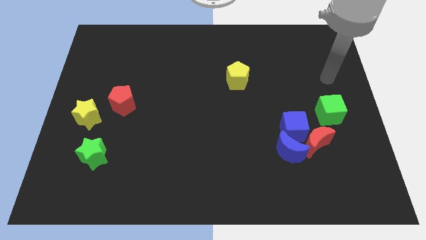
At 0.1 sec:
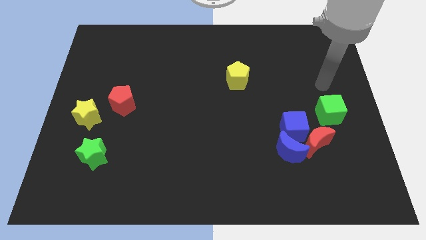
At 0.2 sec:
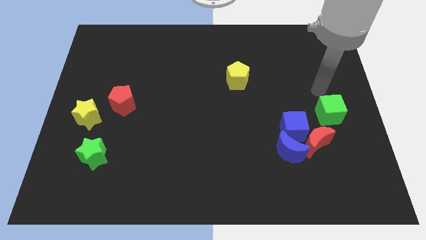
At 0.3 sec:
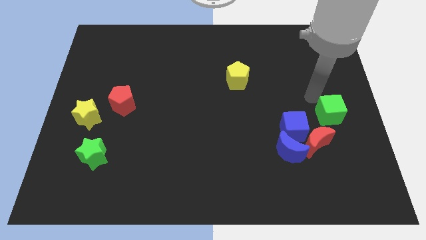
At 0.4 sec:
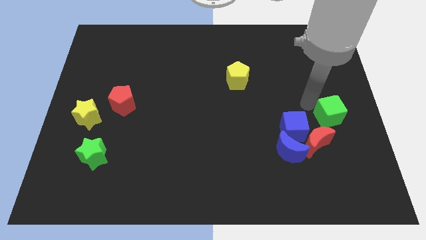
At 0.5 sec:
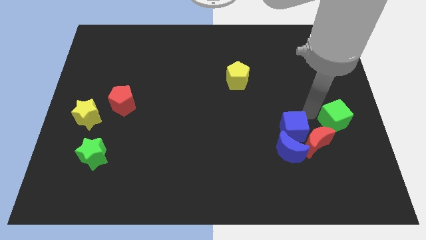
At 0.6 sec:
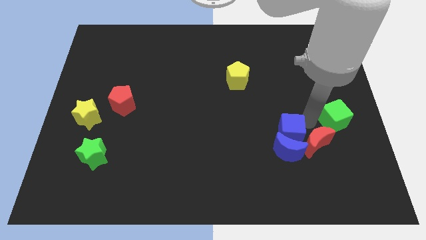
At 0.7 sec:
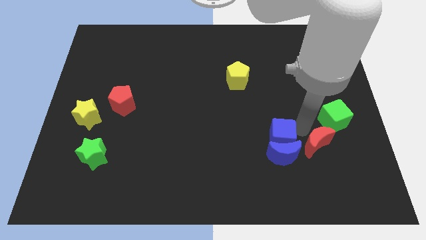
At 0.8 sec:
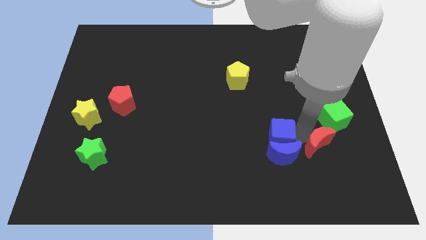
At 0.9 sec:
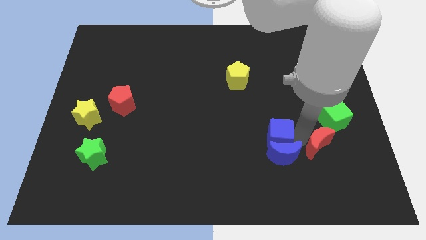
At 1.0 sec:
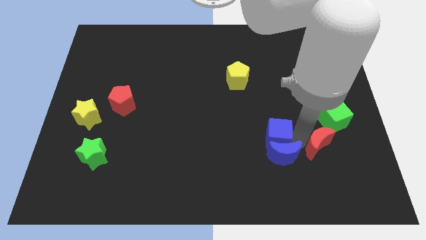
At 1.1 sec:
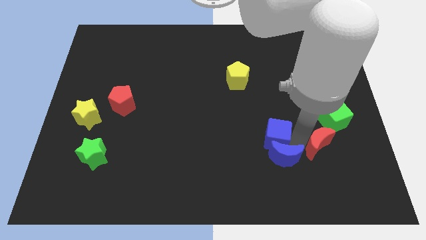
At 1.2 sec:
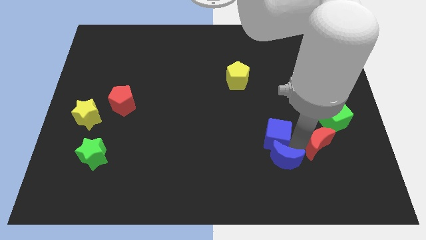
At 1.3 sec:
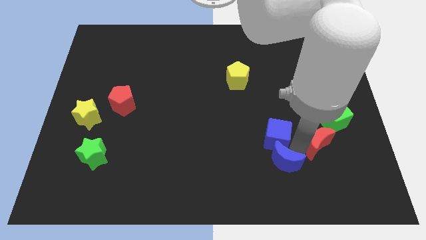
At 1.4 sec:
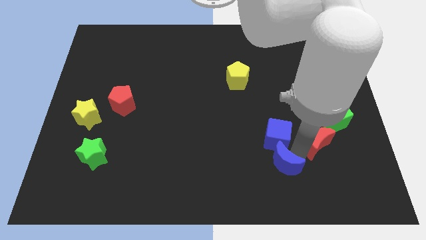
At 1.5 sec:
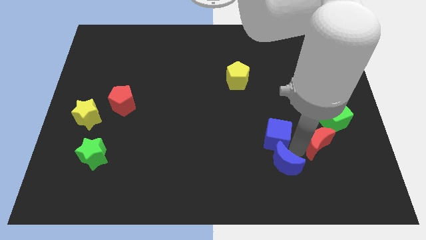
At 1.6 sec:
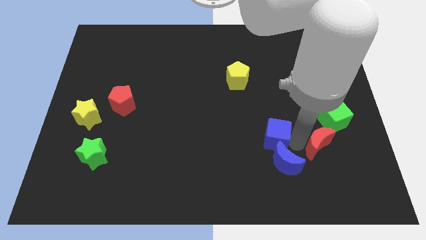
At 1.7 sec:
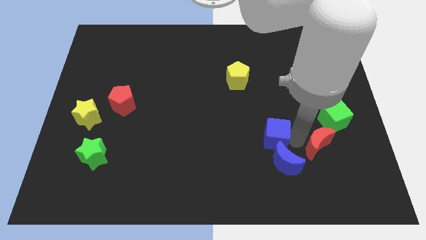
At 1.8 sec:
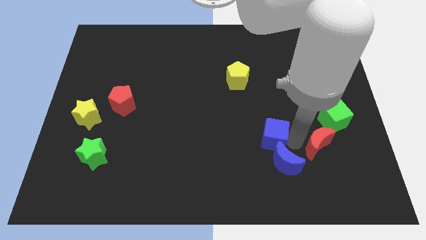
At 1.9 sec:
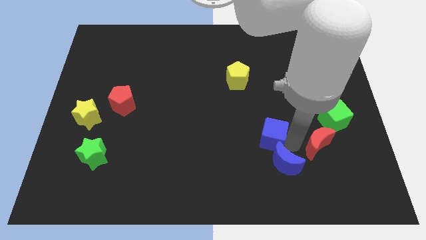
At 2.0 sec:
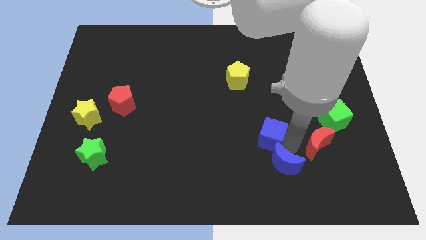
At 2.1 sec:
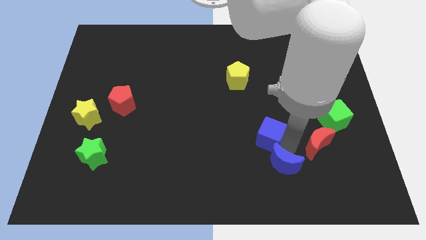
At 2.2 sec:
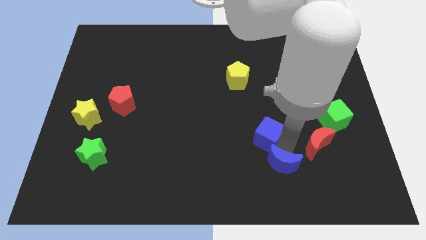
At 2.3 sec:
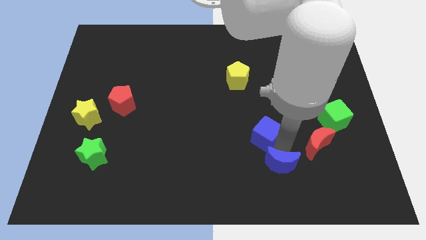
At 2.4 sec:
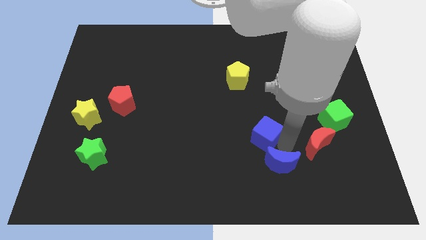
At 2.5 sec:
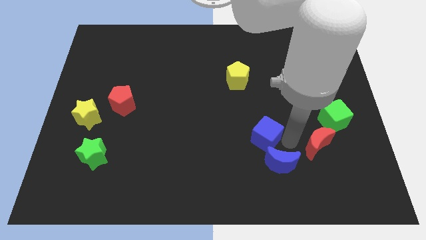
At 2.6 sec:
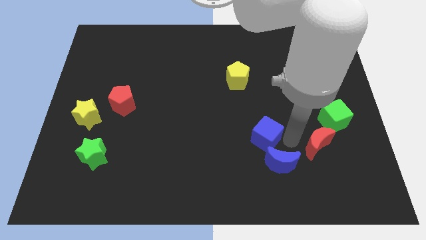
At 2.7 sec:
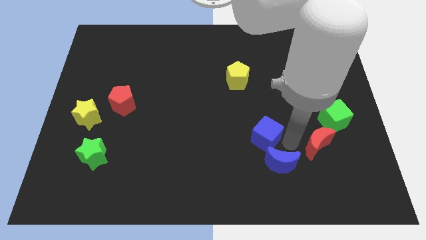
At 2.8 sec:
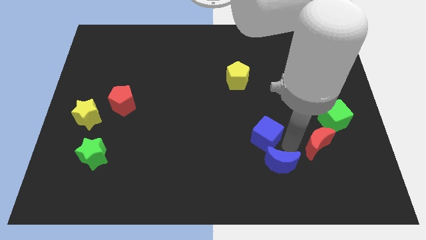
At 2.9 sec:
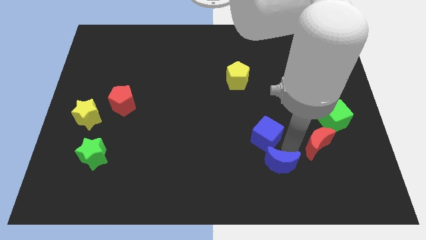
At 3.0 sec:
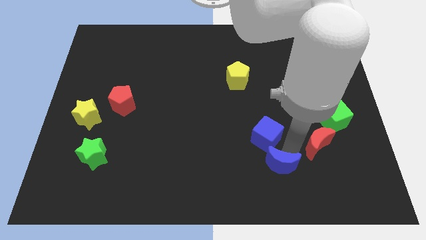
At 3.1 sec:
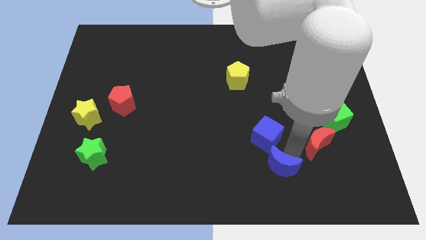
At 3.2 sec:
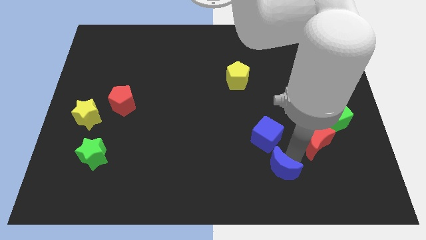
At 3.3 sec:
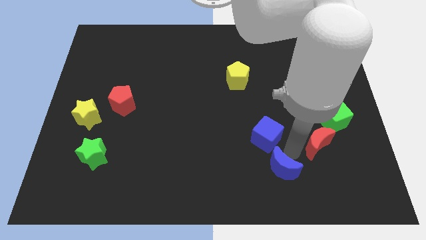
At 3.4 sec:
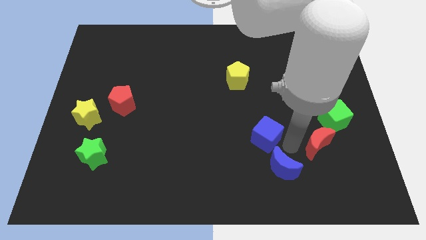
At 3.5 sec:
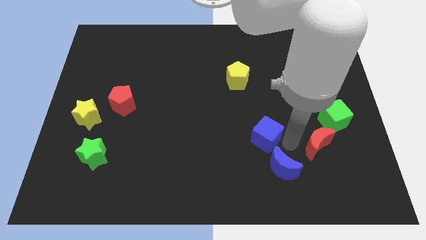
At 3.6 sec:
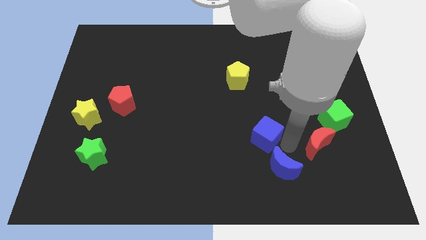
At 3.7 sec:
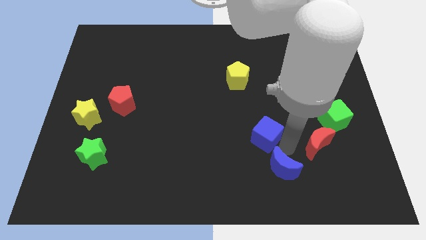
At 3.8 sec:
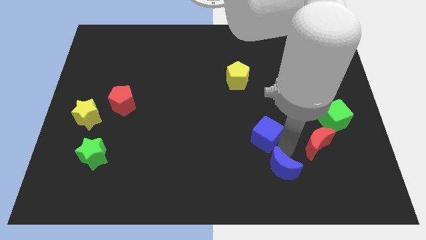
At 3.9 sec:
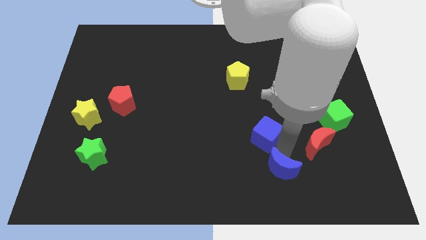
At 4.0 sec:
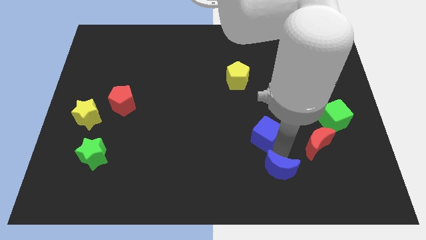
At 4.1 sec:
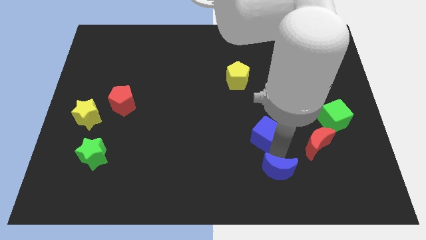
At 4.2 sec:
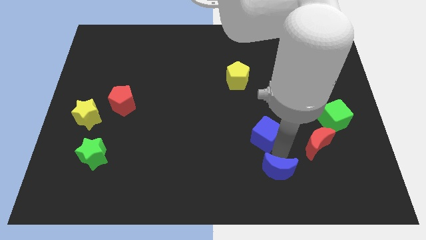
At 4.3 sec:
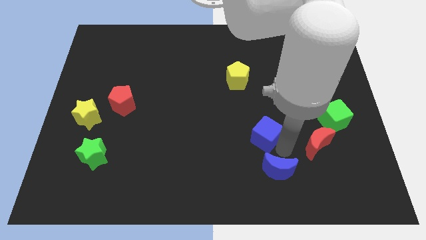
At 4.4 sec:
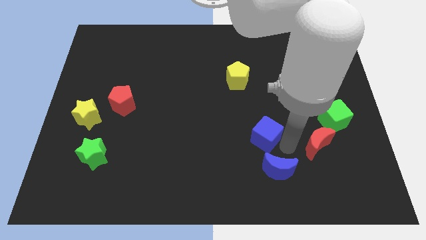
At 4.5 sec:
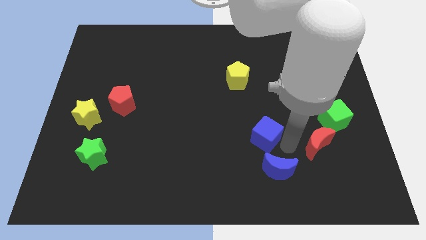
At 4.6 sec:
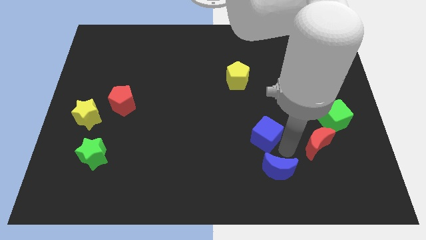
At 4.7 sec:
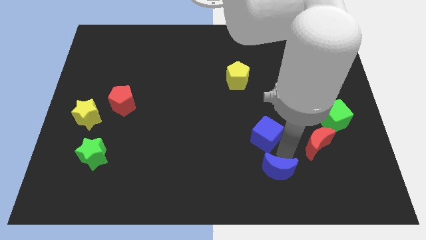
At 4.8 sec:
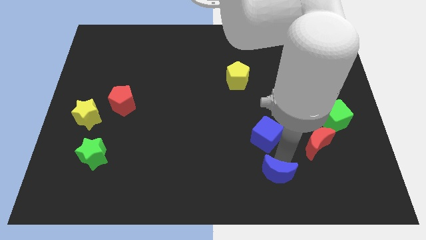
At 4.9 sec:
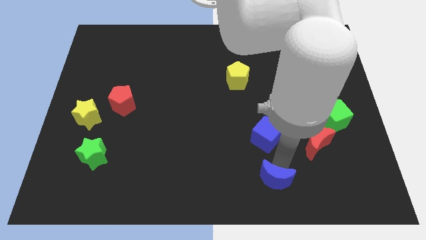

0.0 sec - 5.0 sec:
separate the blue moon from the blue cube and red moon

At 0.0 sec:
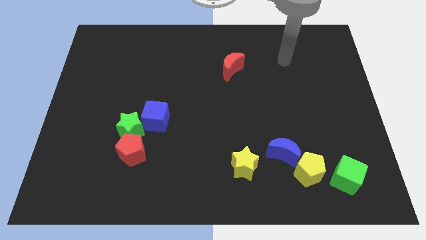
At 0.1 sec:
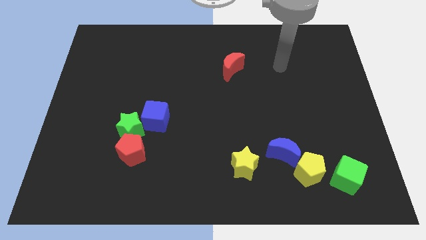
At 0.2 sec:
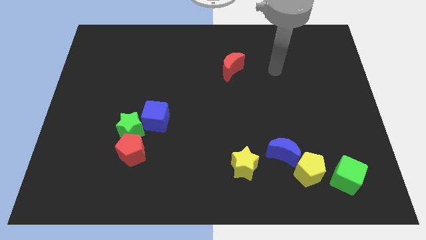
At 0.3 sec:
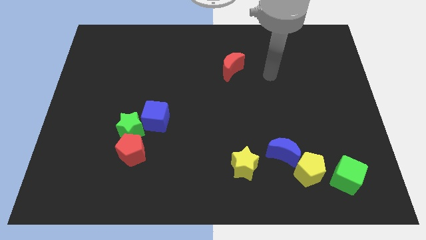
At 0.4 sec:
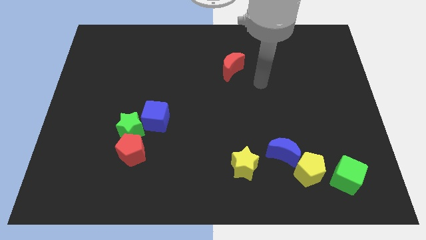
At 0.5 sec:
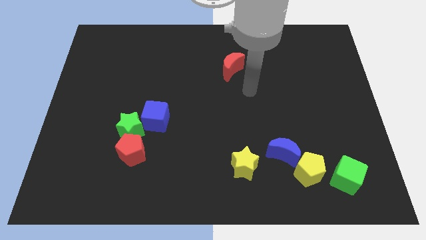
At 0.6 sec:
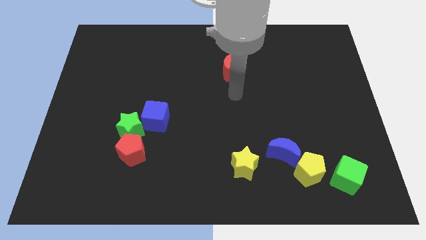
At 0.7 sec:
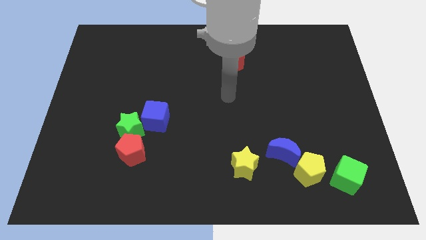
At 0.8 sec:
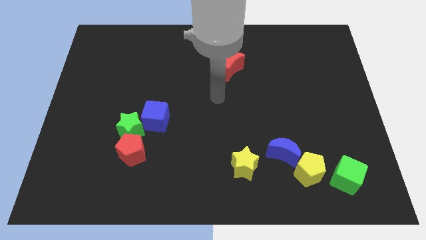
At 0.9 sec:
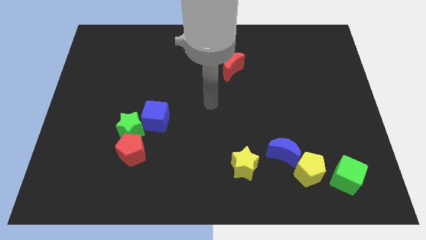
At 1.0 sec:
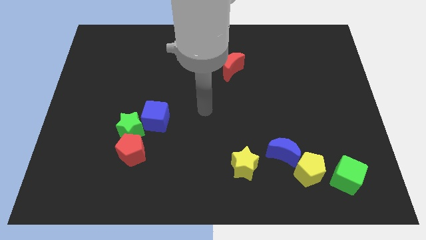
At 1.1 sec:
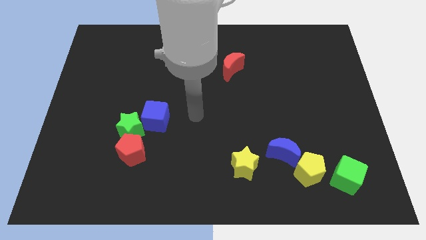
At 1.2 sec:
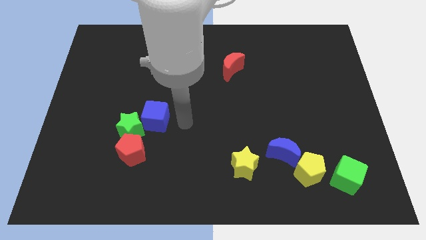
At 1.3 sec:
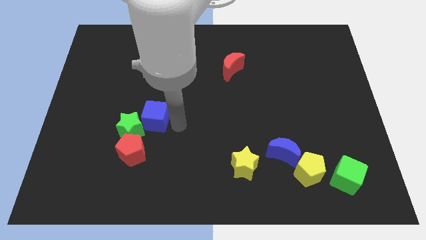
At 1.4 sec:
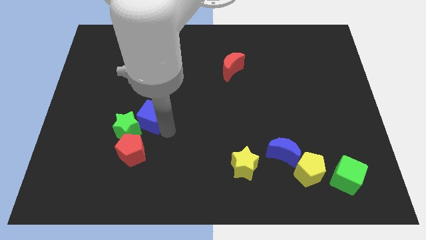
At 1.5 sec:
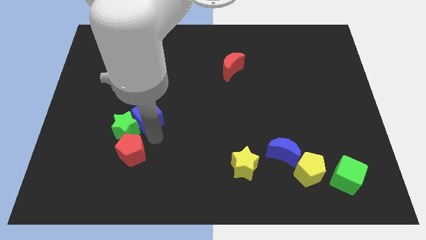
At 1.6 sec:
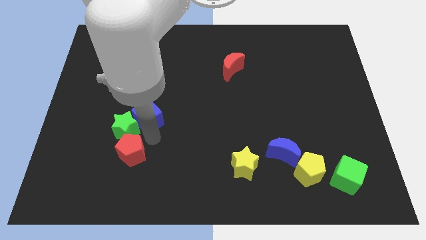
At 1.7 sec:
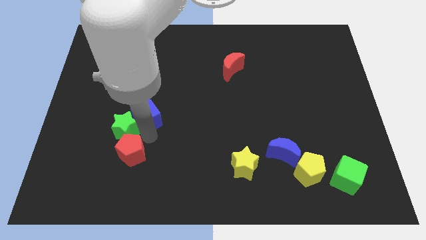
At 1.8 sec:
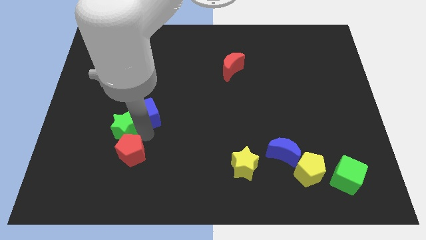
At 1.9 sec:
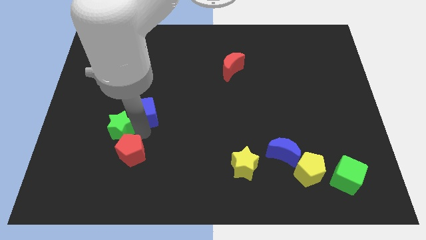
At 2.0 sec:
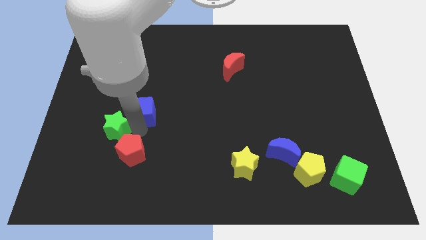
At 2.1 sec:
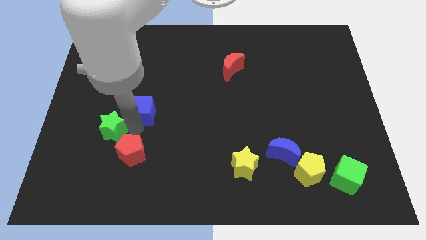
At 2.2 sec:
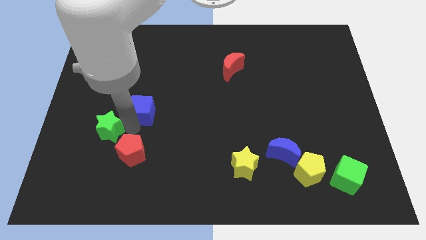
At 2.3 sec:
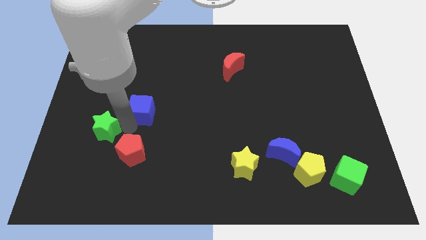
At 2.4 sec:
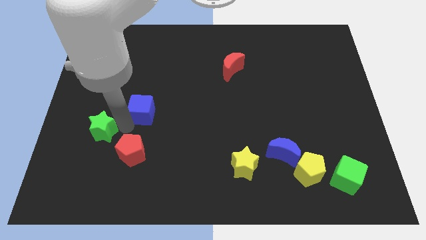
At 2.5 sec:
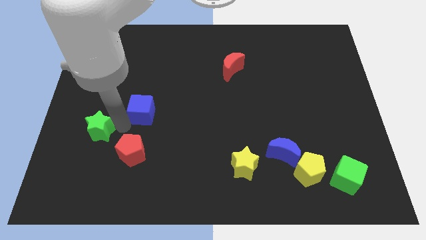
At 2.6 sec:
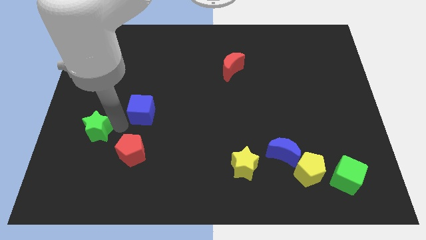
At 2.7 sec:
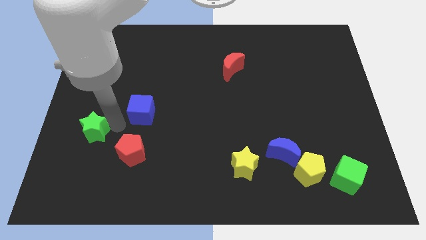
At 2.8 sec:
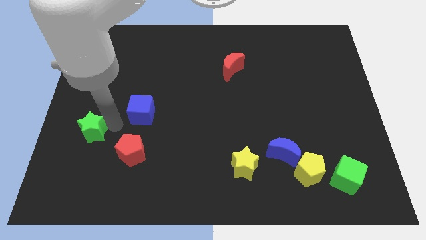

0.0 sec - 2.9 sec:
pull the green star apart from the red pentagon and blue cube

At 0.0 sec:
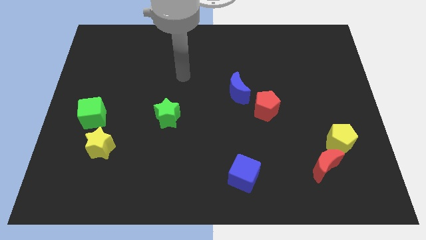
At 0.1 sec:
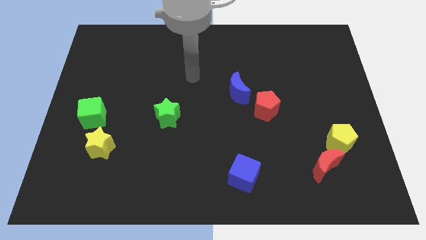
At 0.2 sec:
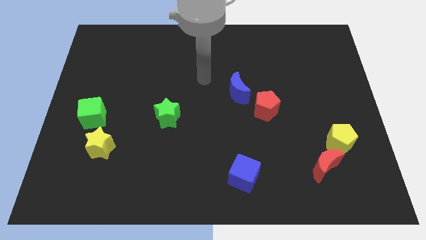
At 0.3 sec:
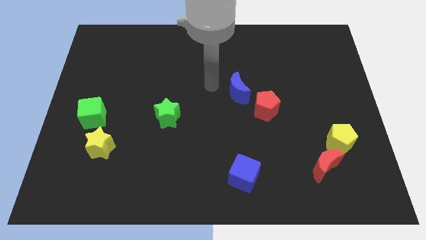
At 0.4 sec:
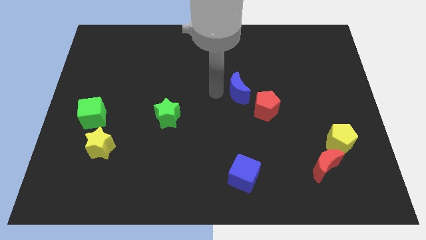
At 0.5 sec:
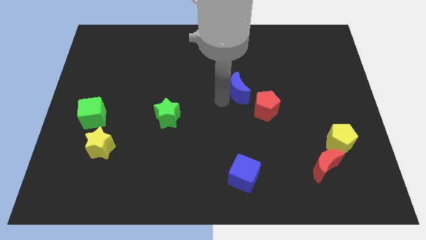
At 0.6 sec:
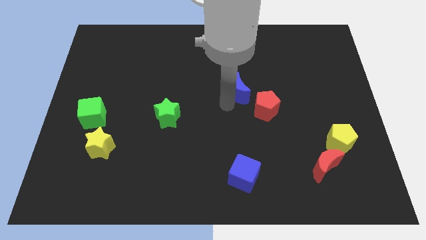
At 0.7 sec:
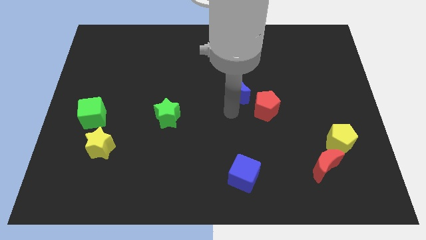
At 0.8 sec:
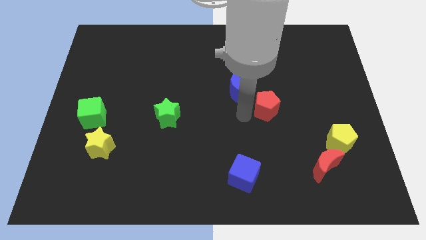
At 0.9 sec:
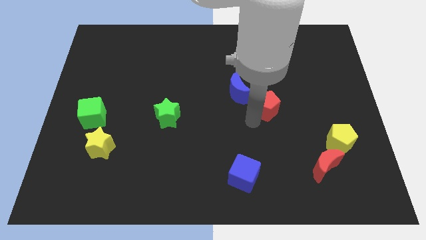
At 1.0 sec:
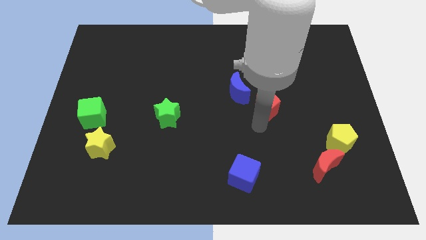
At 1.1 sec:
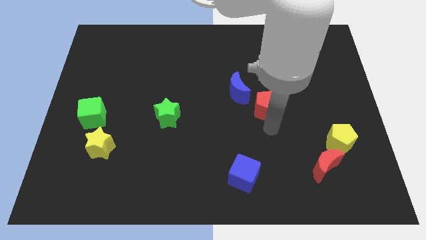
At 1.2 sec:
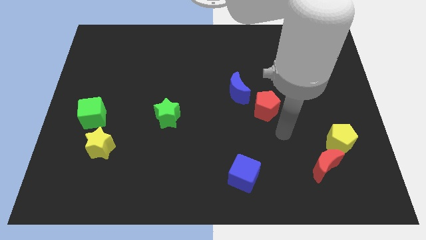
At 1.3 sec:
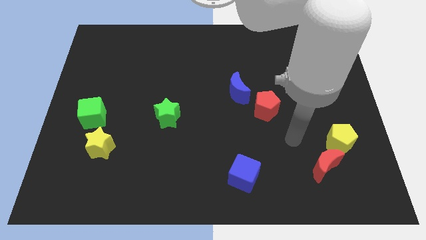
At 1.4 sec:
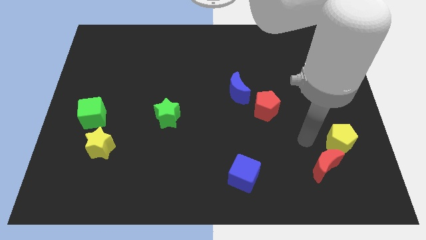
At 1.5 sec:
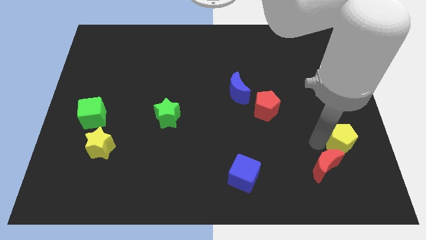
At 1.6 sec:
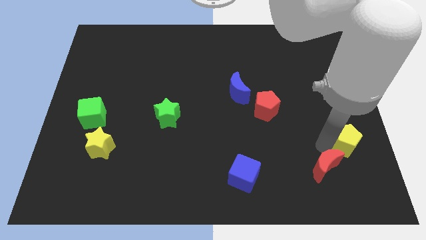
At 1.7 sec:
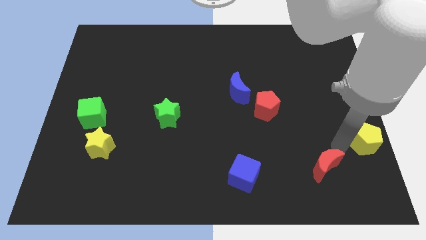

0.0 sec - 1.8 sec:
separate the red moon from the yellow pentagon
